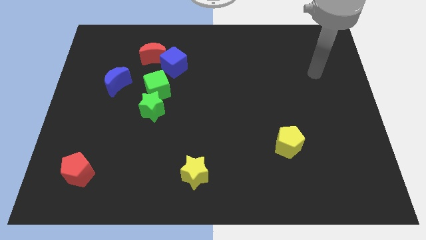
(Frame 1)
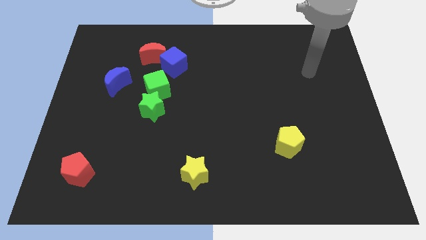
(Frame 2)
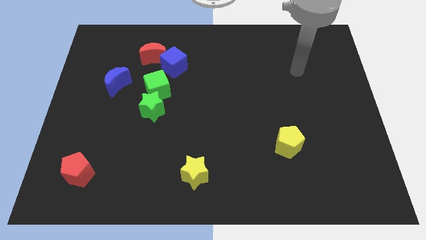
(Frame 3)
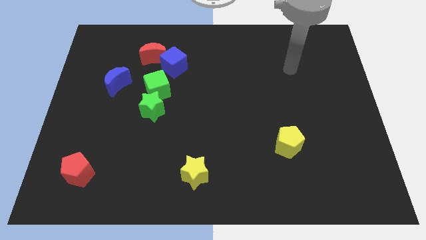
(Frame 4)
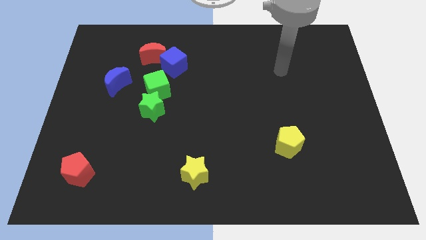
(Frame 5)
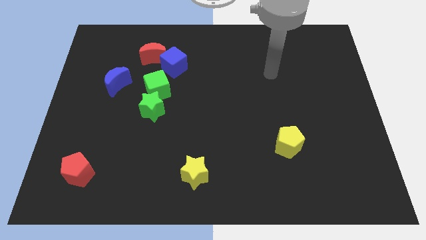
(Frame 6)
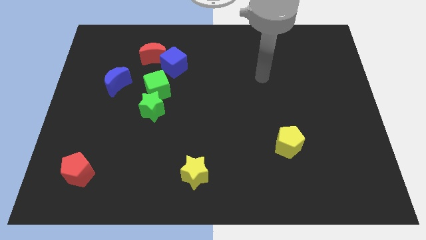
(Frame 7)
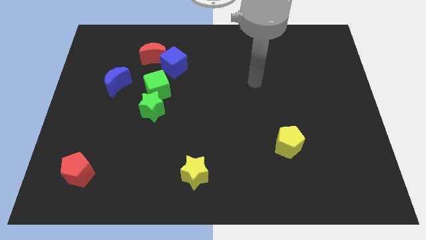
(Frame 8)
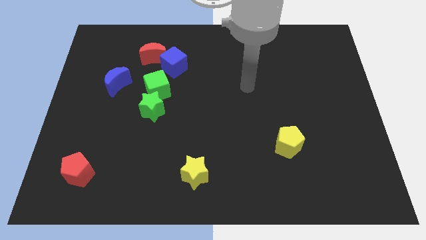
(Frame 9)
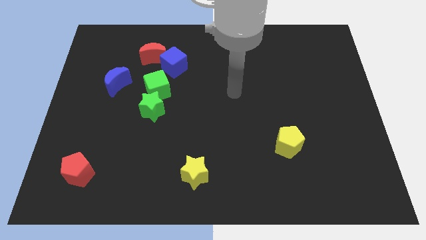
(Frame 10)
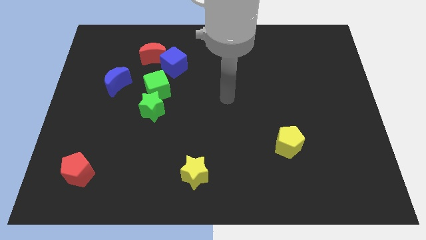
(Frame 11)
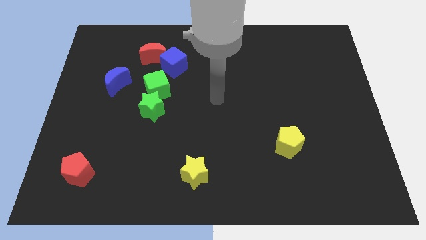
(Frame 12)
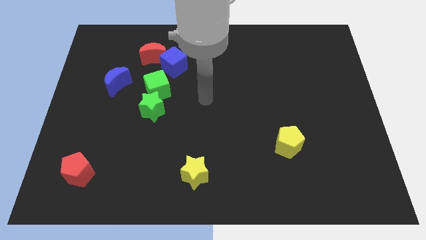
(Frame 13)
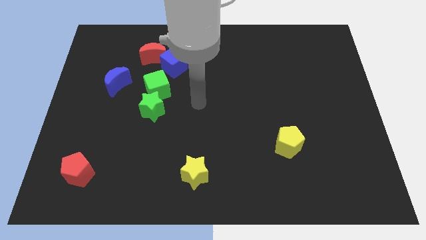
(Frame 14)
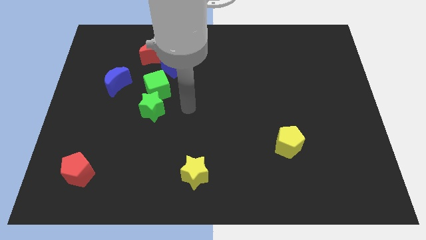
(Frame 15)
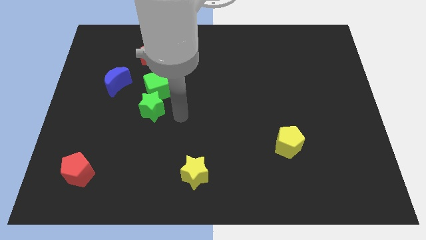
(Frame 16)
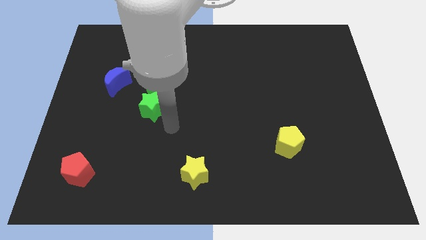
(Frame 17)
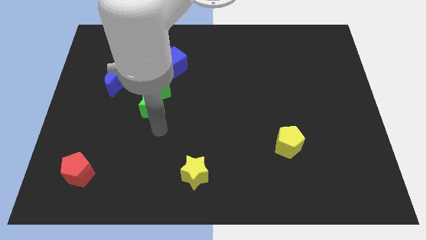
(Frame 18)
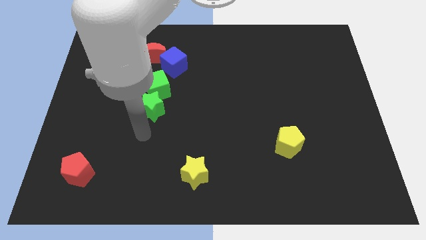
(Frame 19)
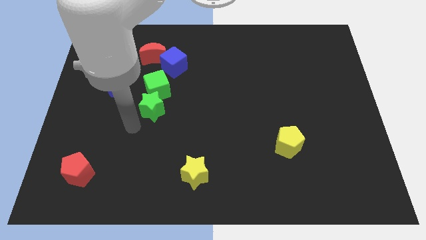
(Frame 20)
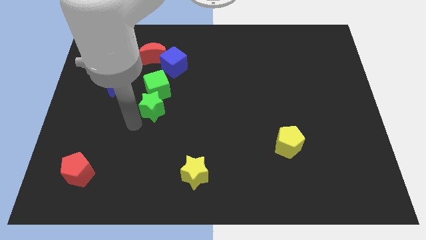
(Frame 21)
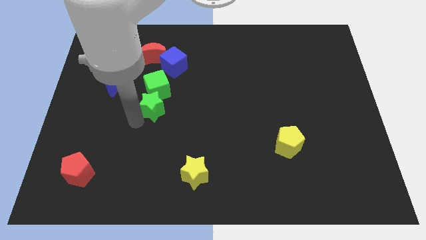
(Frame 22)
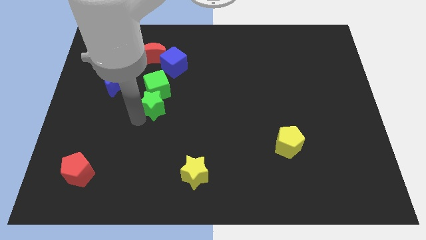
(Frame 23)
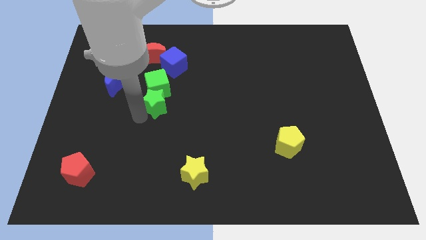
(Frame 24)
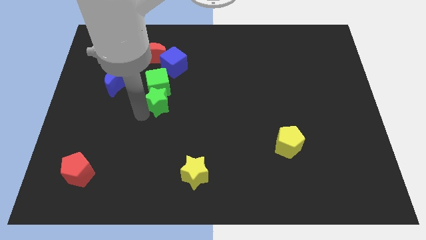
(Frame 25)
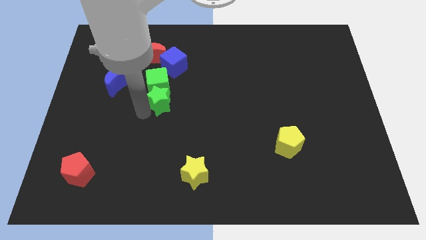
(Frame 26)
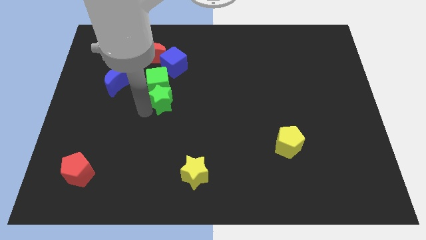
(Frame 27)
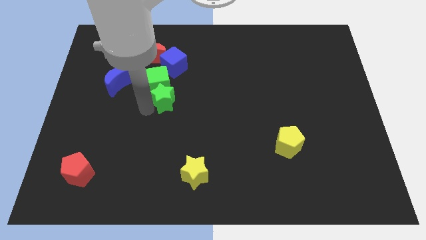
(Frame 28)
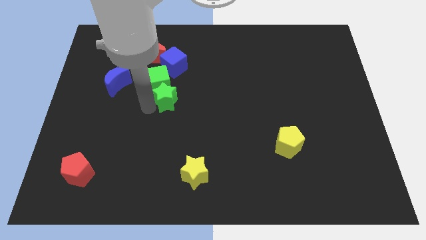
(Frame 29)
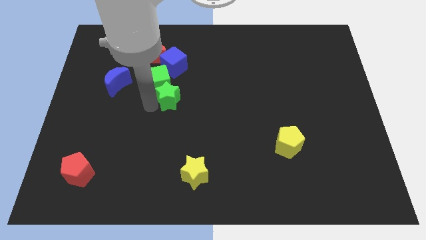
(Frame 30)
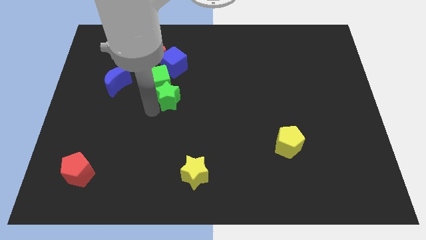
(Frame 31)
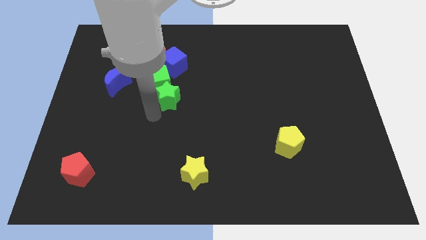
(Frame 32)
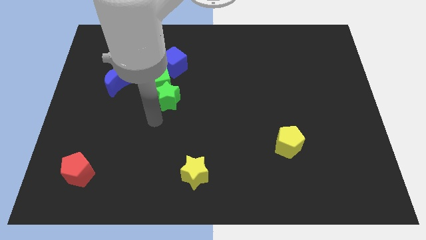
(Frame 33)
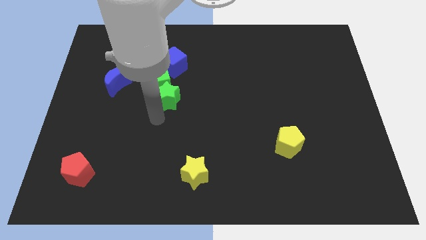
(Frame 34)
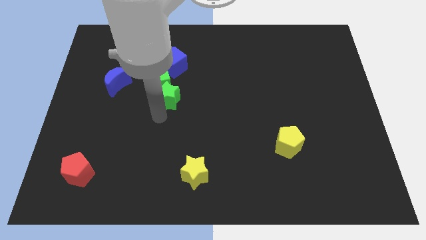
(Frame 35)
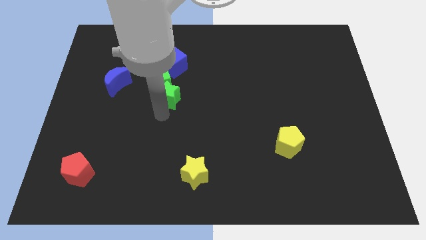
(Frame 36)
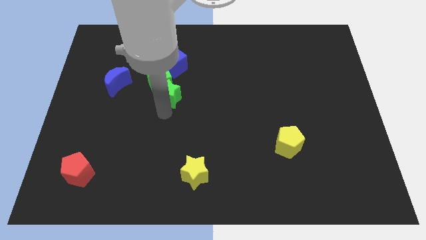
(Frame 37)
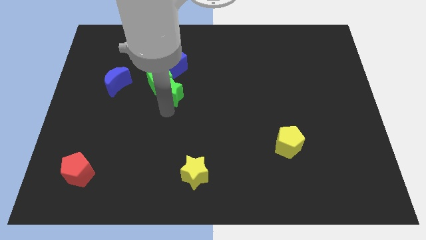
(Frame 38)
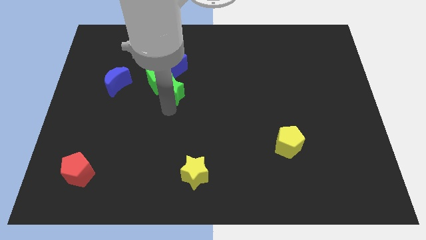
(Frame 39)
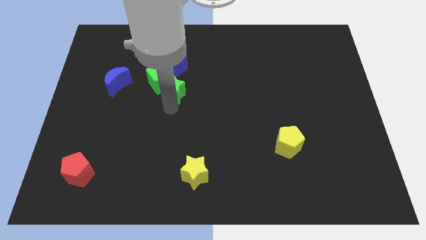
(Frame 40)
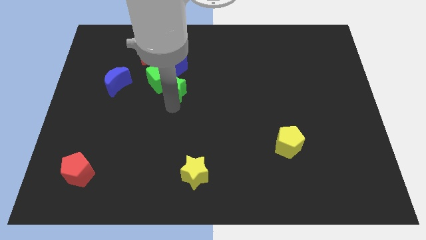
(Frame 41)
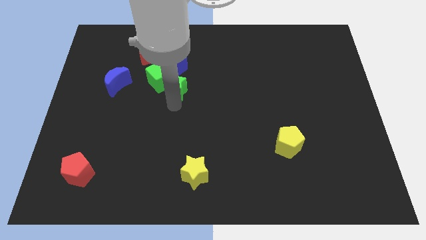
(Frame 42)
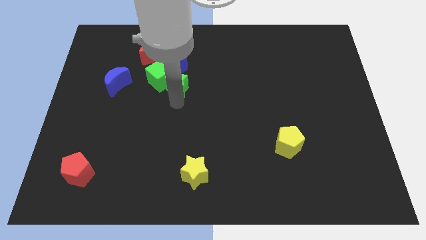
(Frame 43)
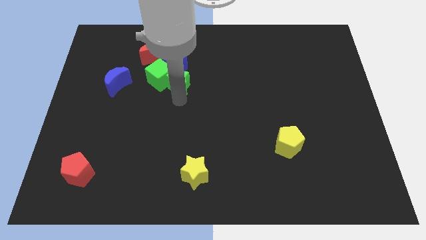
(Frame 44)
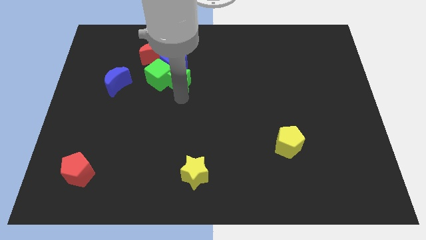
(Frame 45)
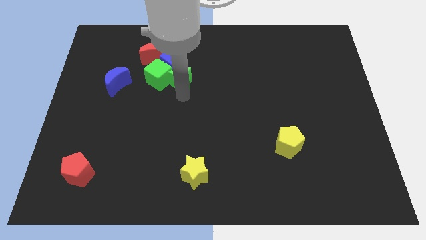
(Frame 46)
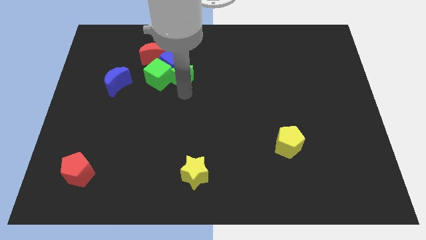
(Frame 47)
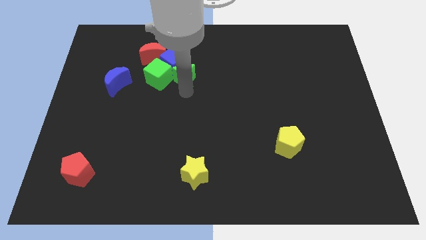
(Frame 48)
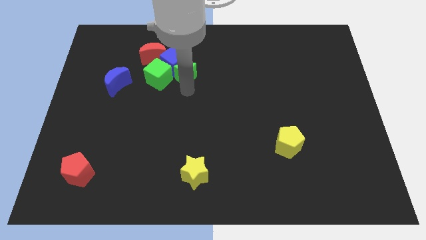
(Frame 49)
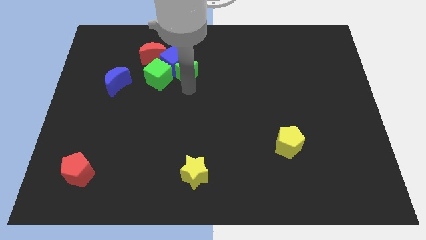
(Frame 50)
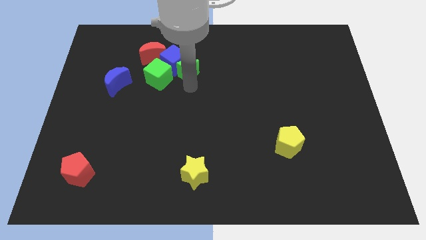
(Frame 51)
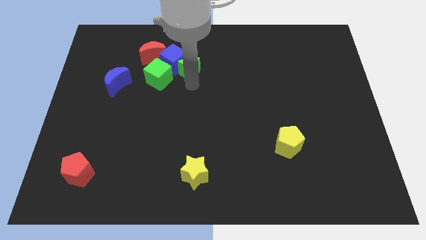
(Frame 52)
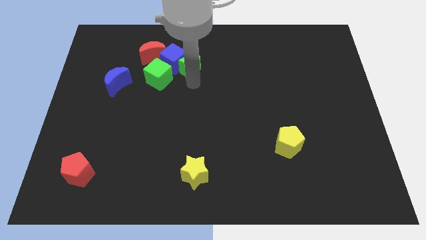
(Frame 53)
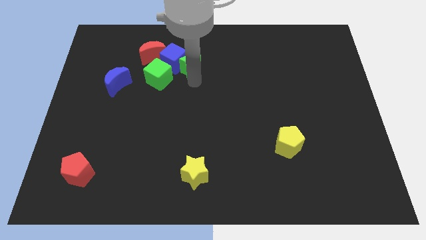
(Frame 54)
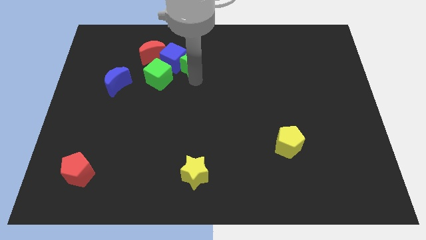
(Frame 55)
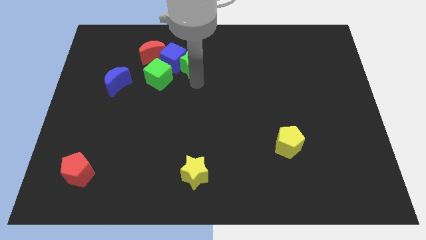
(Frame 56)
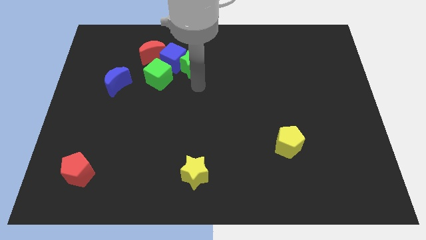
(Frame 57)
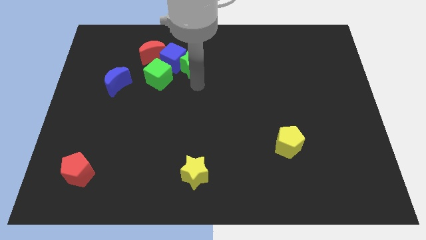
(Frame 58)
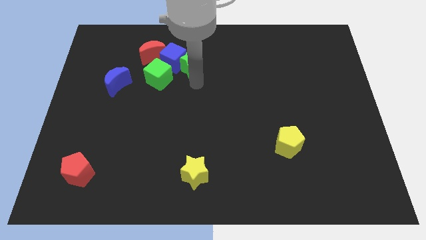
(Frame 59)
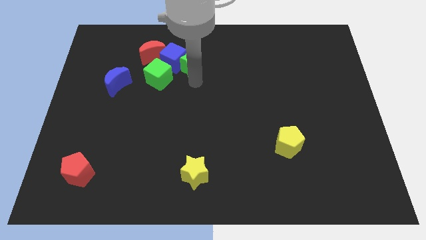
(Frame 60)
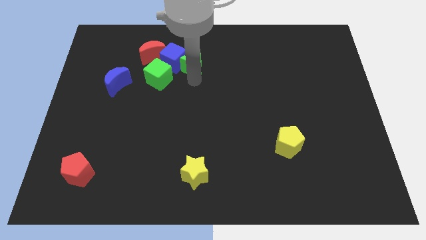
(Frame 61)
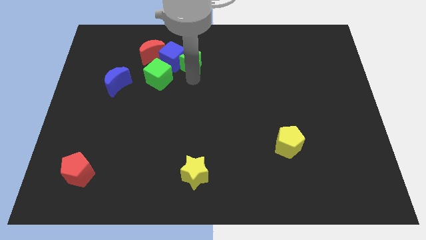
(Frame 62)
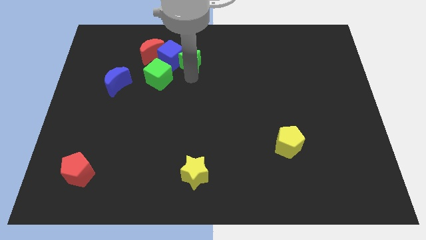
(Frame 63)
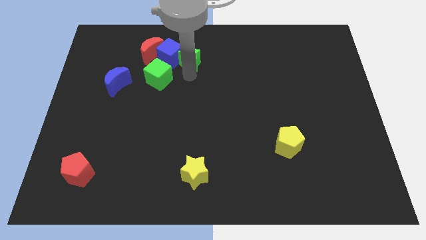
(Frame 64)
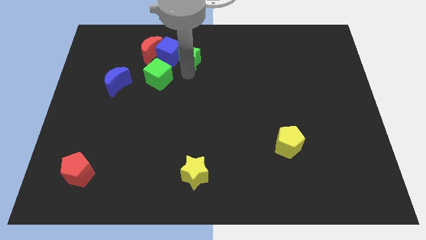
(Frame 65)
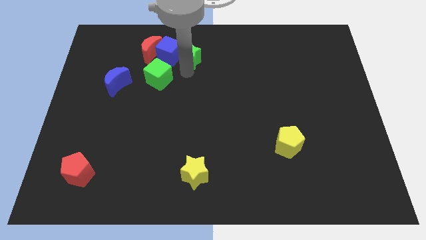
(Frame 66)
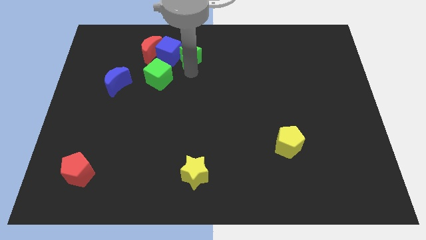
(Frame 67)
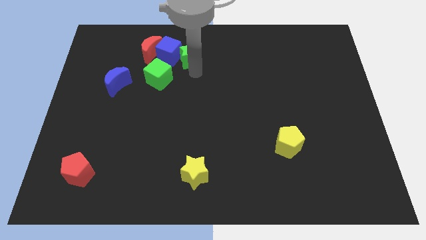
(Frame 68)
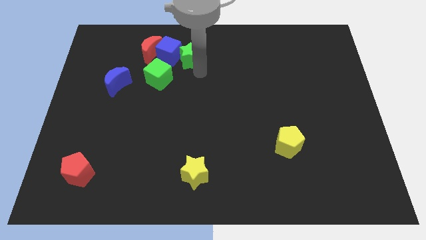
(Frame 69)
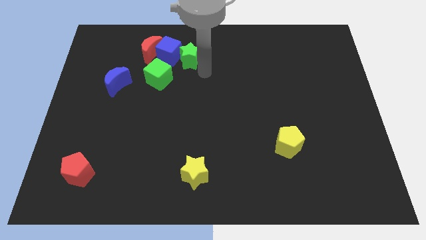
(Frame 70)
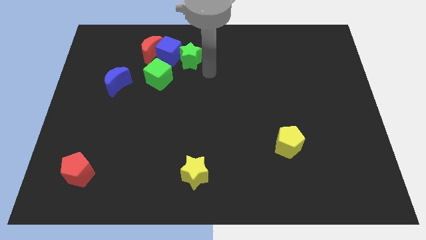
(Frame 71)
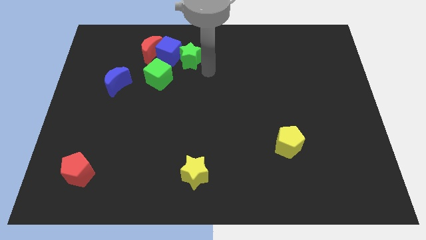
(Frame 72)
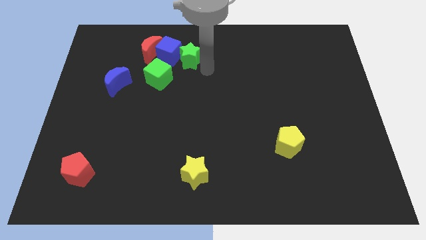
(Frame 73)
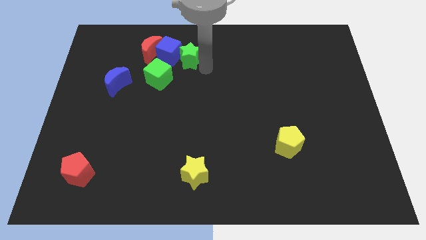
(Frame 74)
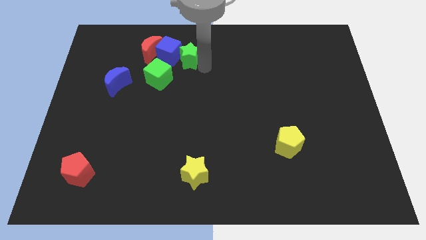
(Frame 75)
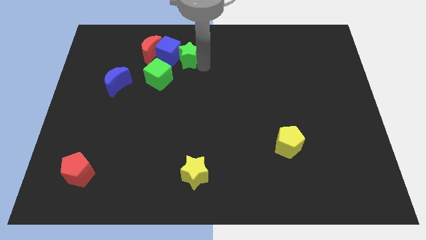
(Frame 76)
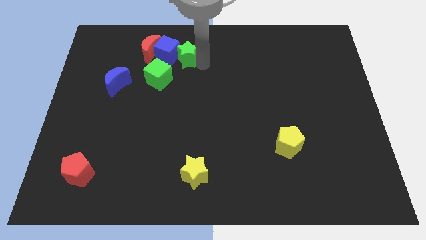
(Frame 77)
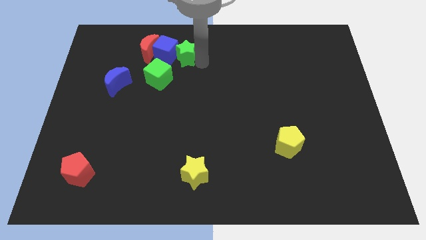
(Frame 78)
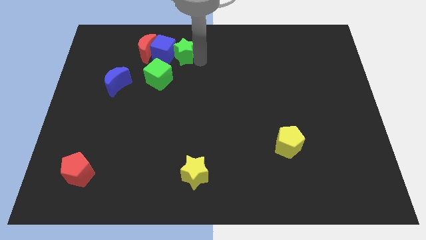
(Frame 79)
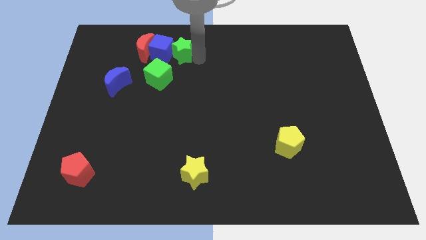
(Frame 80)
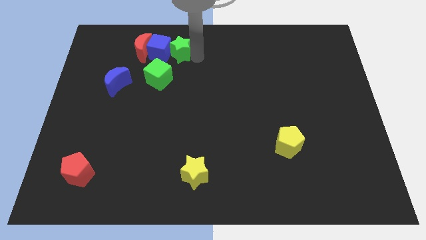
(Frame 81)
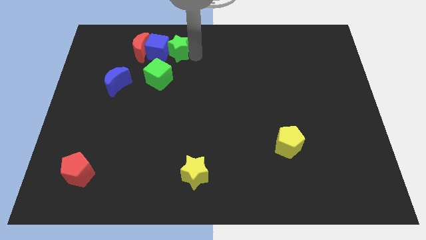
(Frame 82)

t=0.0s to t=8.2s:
push the green star above the green cube
